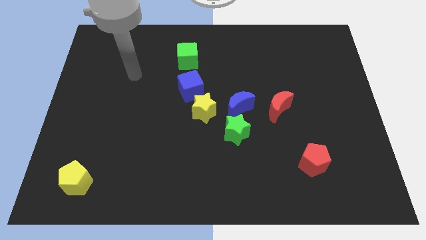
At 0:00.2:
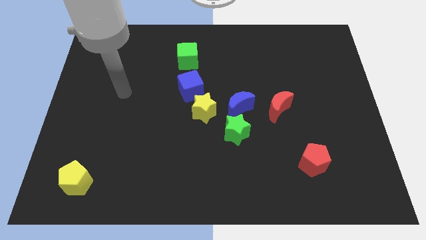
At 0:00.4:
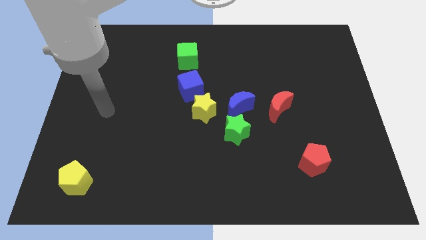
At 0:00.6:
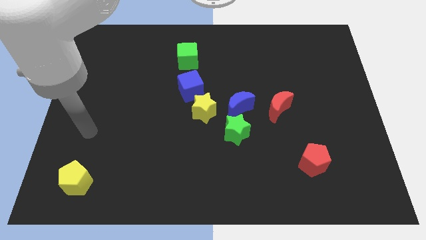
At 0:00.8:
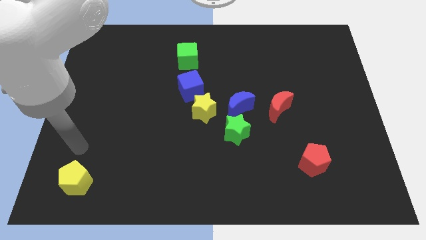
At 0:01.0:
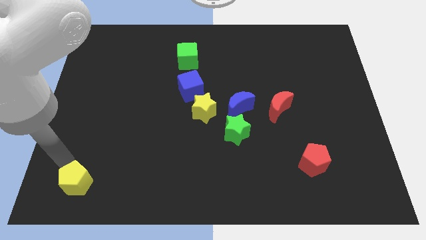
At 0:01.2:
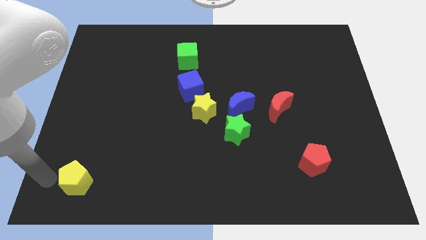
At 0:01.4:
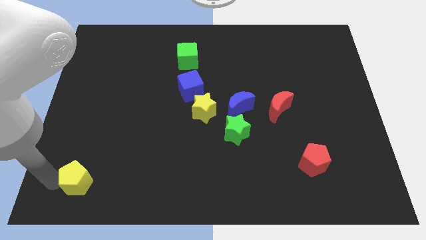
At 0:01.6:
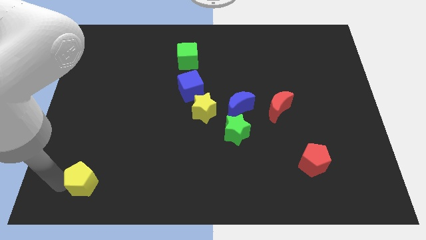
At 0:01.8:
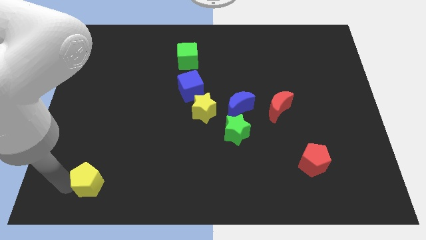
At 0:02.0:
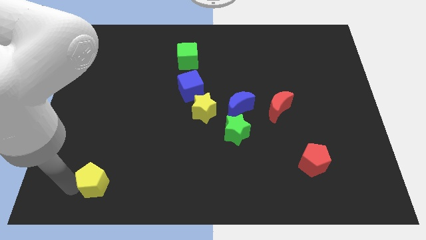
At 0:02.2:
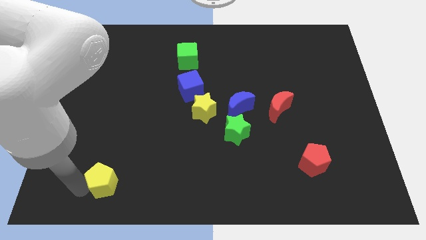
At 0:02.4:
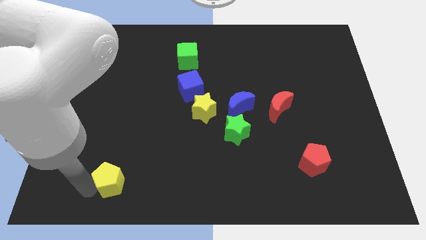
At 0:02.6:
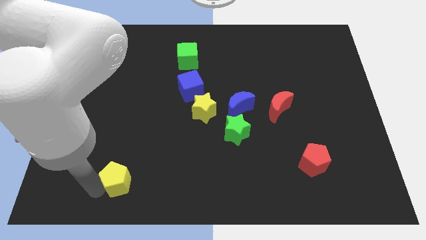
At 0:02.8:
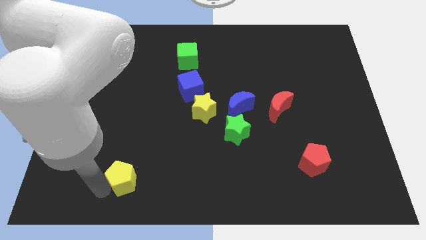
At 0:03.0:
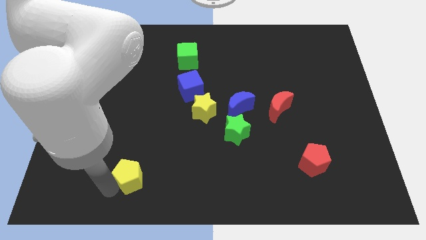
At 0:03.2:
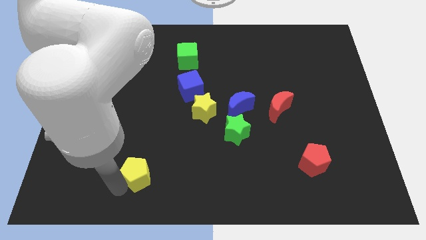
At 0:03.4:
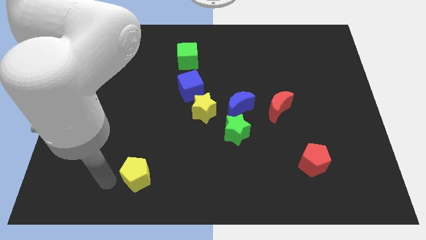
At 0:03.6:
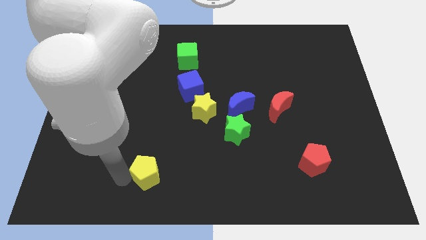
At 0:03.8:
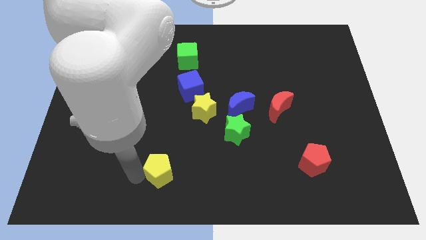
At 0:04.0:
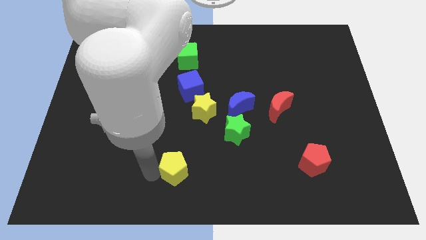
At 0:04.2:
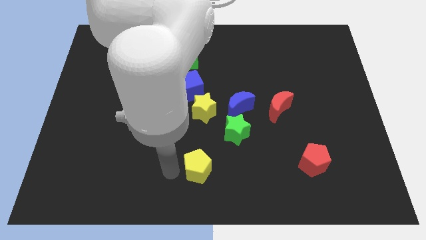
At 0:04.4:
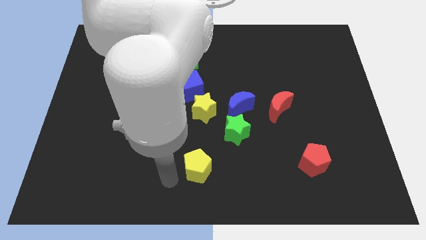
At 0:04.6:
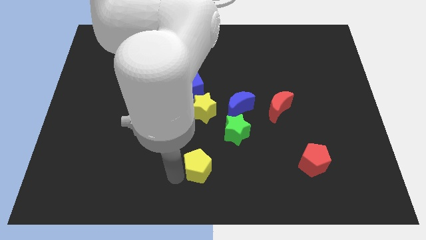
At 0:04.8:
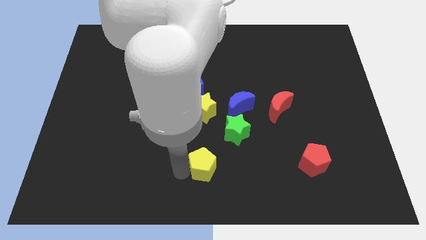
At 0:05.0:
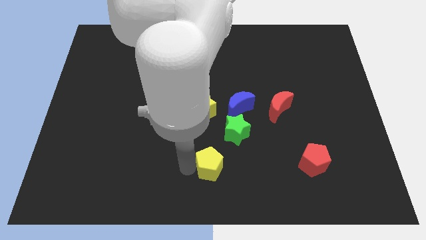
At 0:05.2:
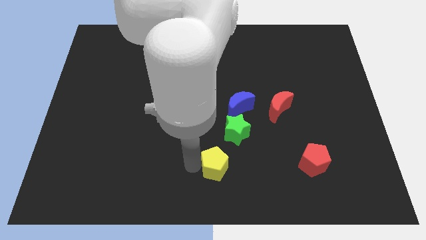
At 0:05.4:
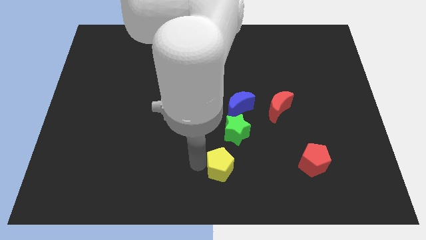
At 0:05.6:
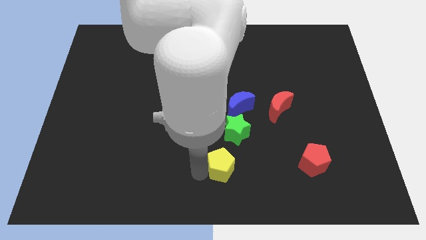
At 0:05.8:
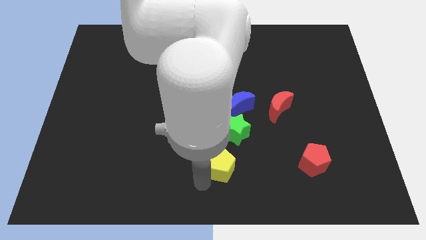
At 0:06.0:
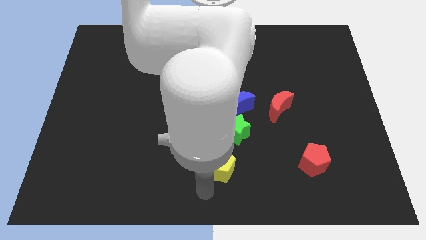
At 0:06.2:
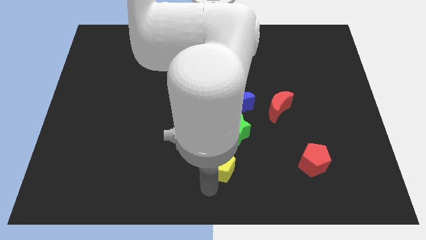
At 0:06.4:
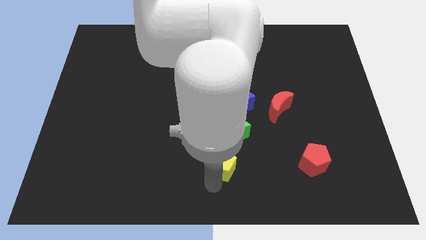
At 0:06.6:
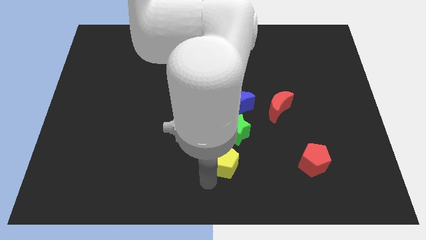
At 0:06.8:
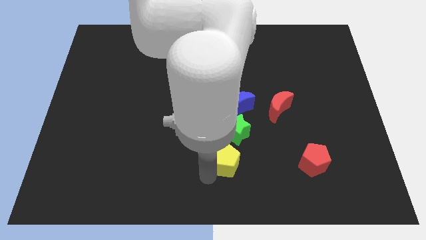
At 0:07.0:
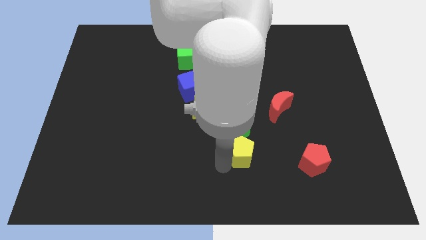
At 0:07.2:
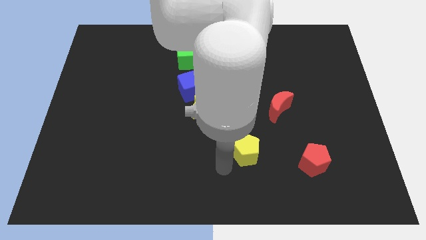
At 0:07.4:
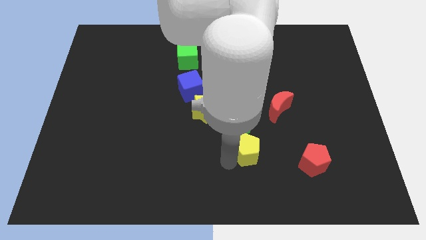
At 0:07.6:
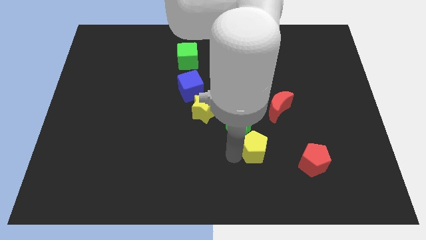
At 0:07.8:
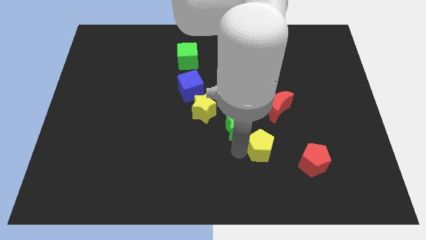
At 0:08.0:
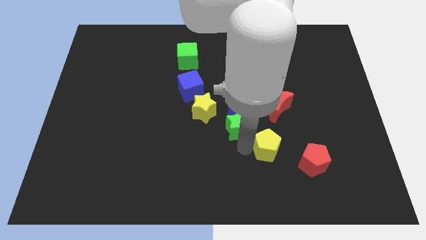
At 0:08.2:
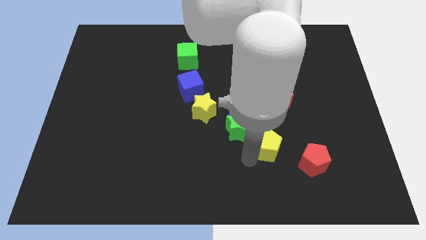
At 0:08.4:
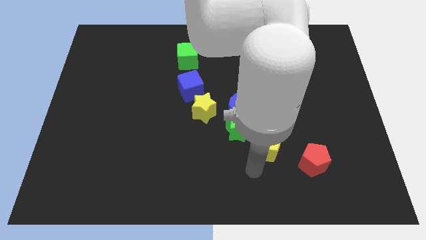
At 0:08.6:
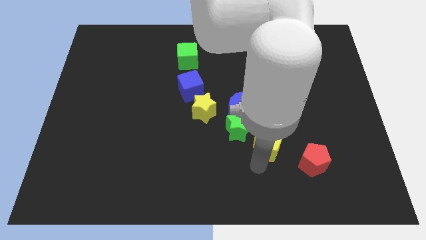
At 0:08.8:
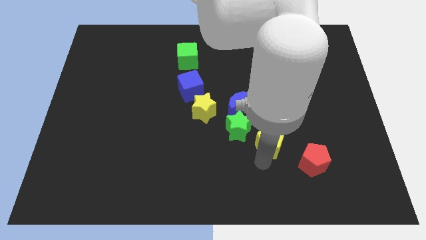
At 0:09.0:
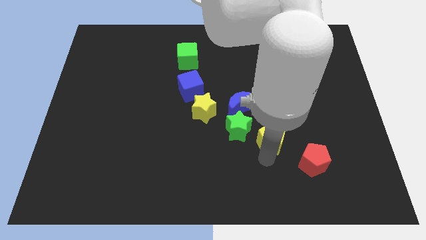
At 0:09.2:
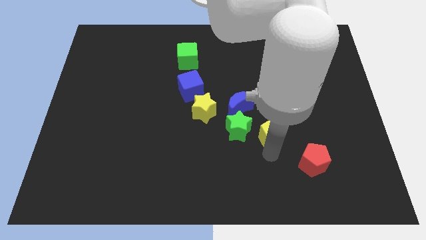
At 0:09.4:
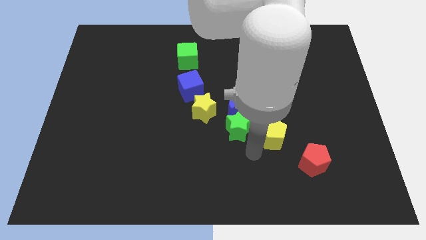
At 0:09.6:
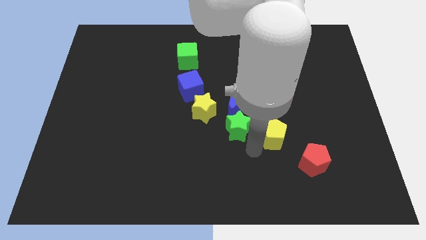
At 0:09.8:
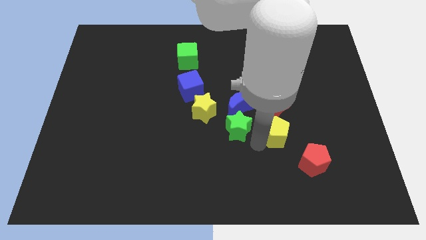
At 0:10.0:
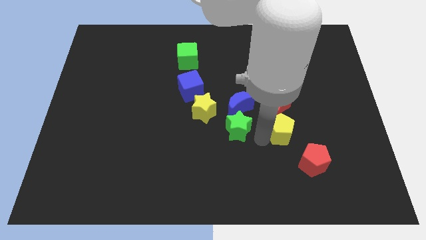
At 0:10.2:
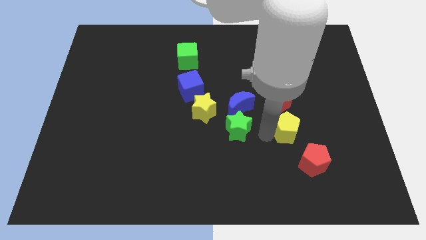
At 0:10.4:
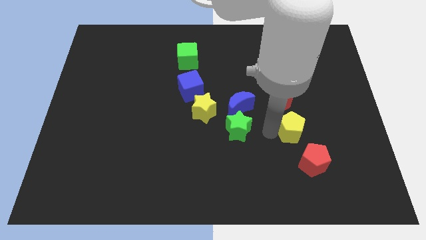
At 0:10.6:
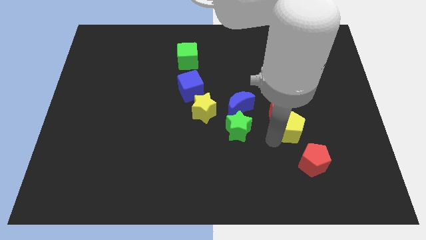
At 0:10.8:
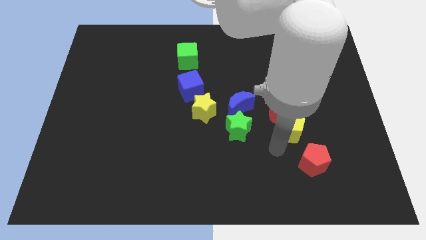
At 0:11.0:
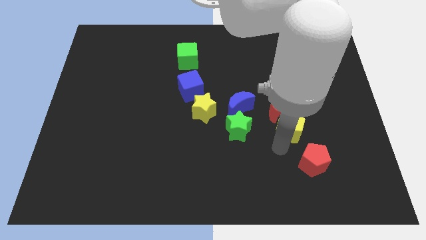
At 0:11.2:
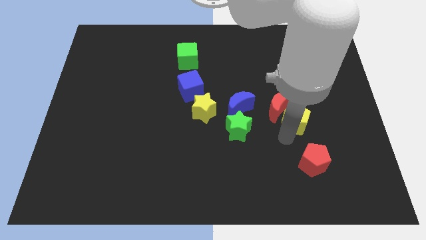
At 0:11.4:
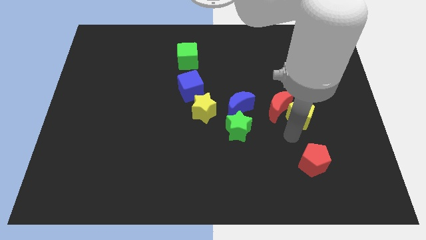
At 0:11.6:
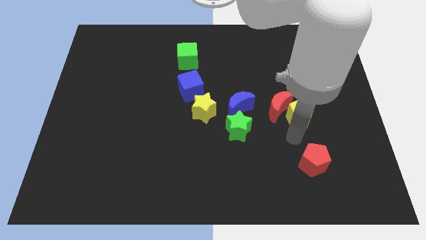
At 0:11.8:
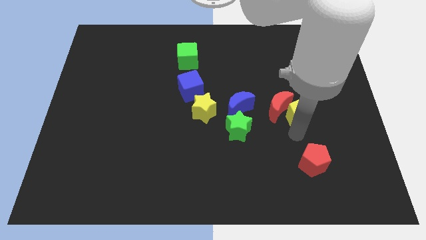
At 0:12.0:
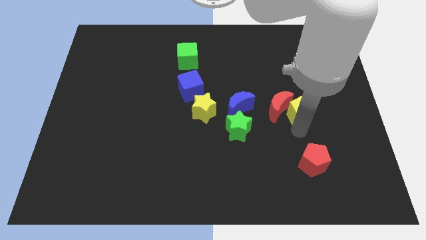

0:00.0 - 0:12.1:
slide the yellow pentagon diagonally up and to the right of the red moon

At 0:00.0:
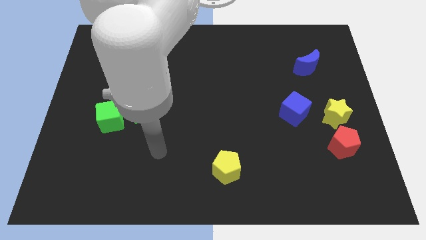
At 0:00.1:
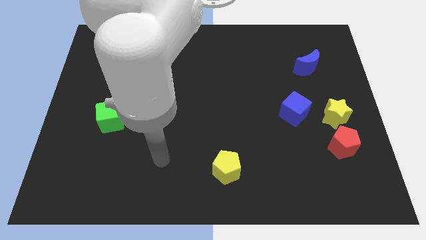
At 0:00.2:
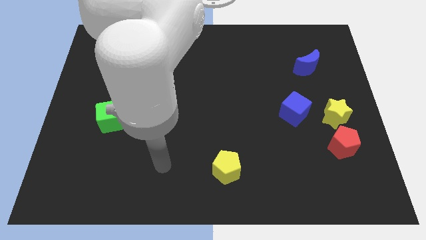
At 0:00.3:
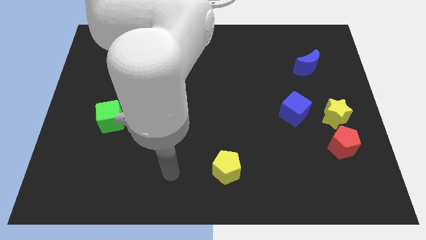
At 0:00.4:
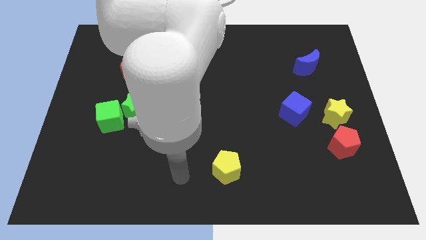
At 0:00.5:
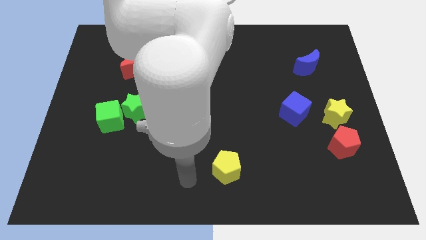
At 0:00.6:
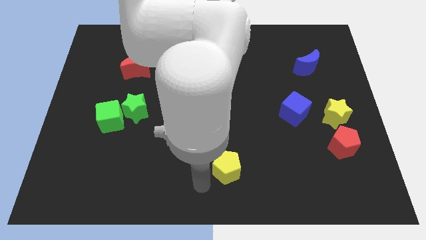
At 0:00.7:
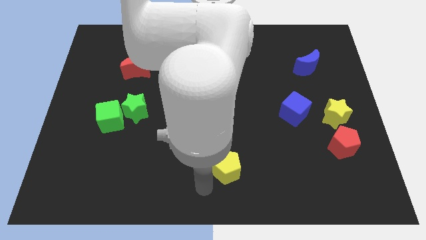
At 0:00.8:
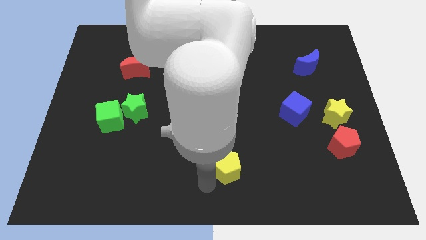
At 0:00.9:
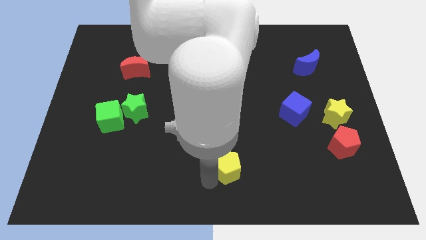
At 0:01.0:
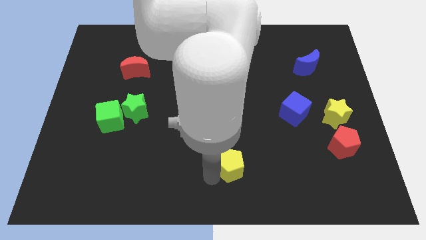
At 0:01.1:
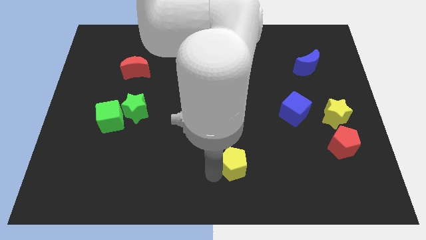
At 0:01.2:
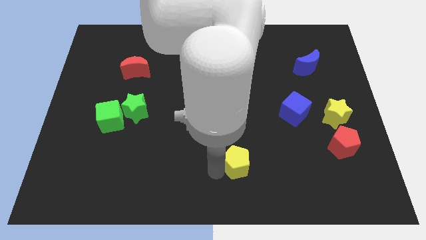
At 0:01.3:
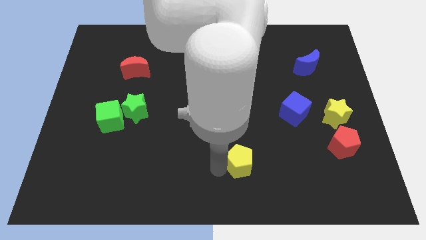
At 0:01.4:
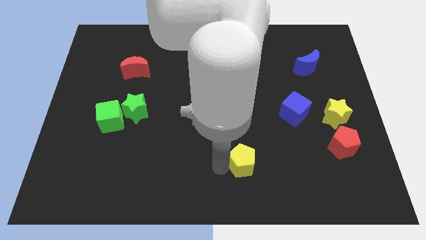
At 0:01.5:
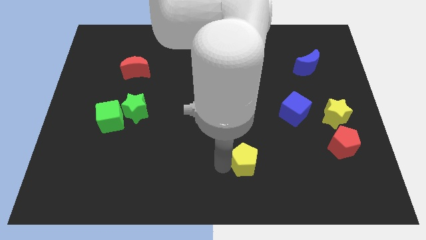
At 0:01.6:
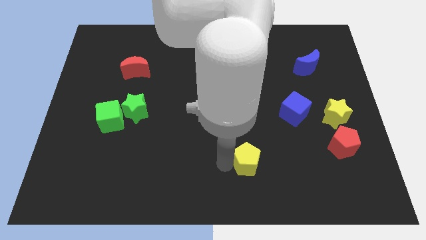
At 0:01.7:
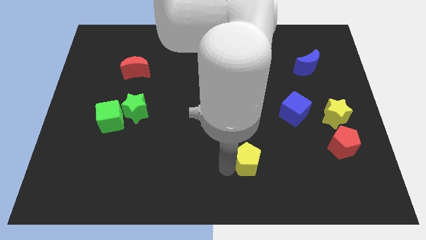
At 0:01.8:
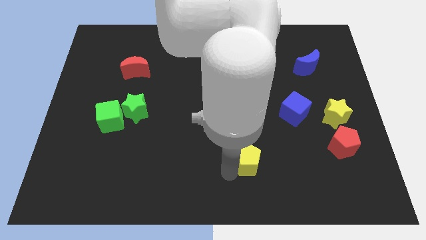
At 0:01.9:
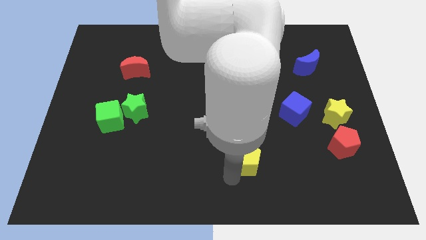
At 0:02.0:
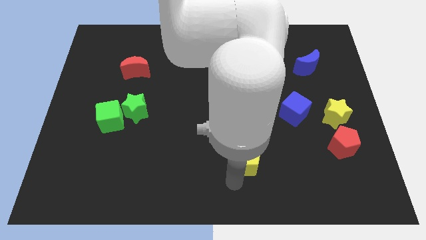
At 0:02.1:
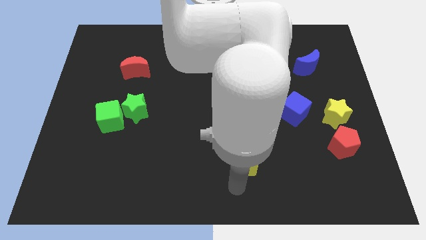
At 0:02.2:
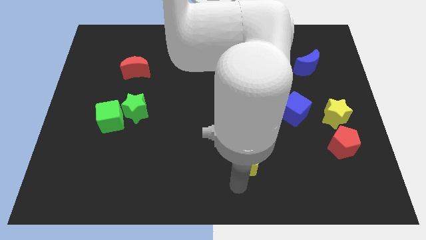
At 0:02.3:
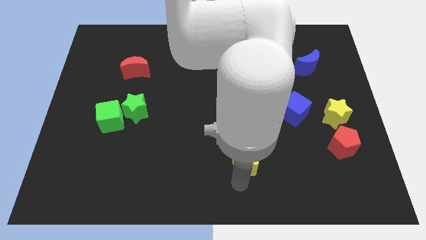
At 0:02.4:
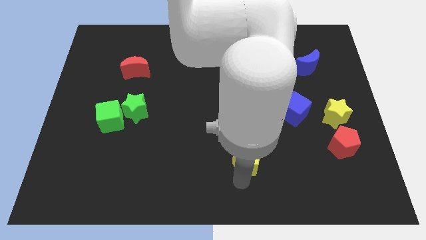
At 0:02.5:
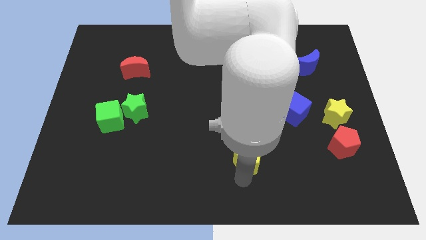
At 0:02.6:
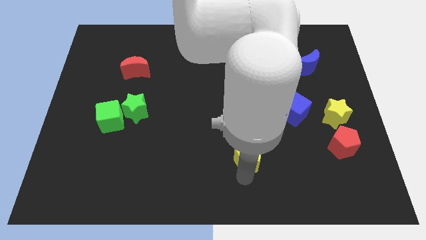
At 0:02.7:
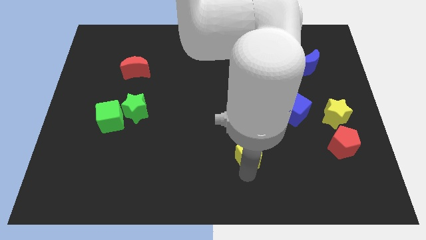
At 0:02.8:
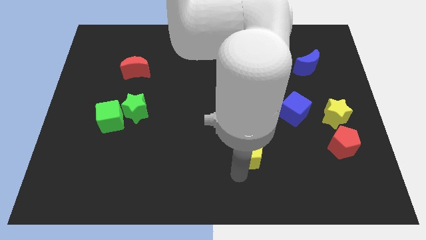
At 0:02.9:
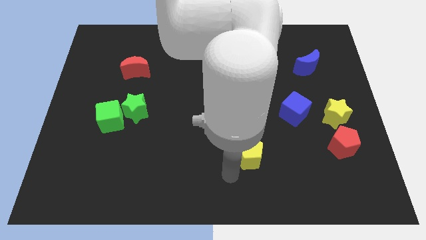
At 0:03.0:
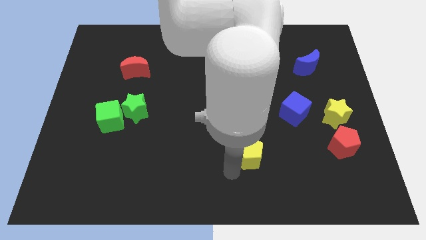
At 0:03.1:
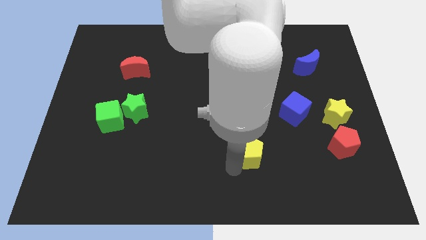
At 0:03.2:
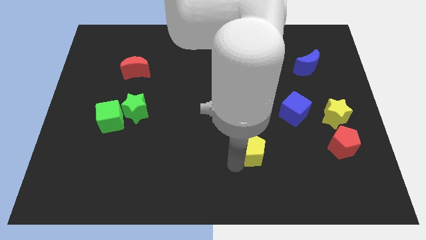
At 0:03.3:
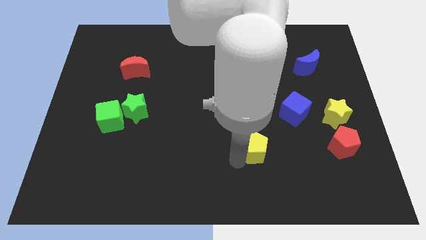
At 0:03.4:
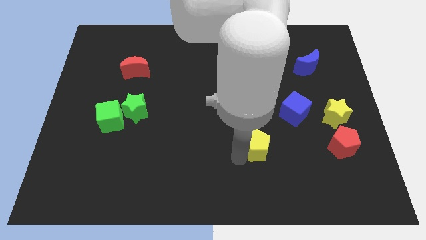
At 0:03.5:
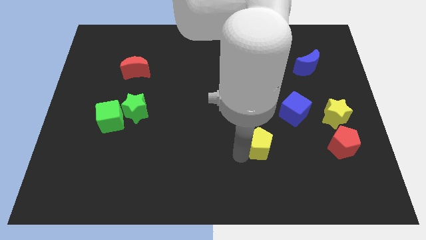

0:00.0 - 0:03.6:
push the yellow pentagon diagonally down and to the left of the blue cube
